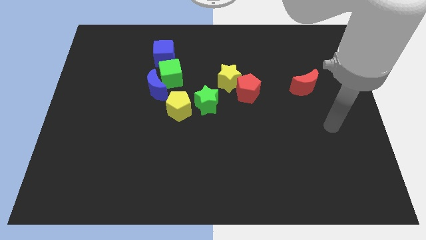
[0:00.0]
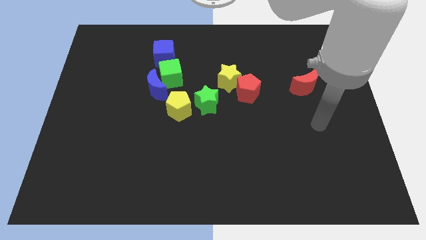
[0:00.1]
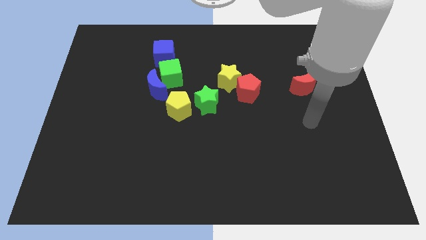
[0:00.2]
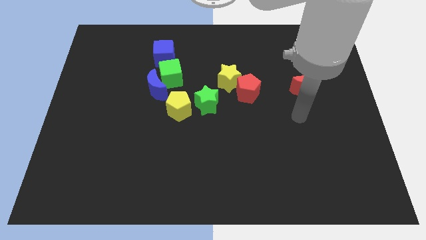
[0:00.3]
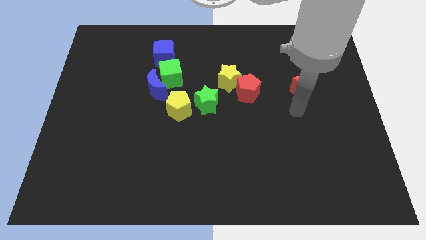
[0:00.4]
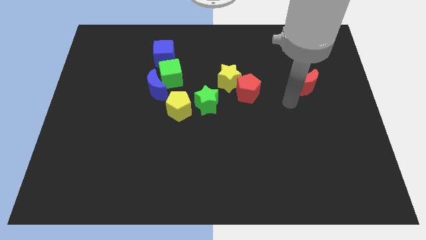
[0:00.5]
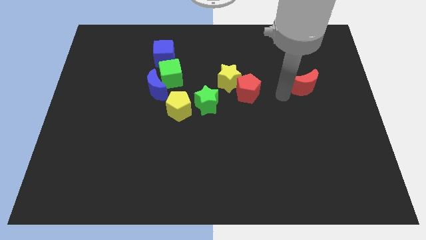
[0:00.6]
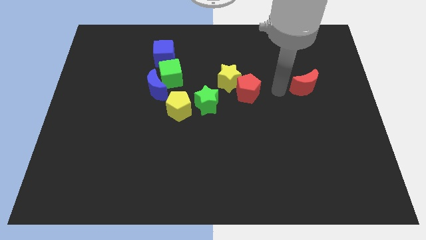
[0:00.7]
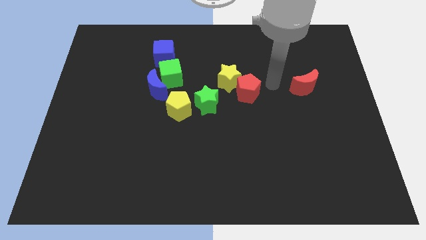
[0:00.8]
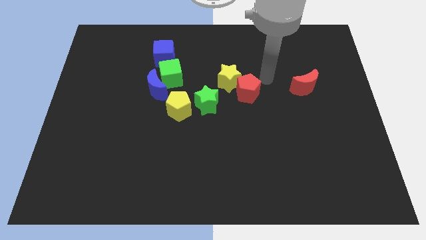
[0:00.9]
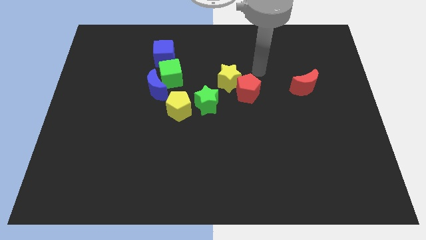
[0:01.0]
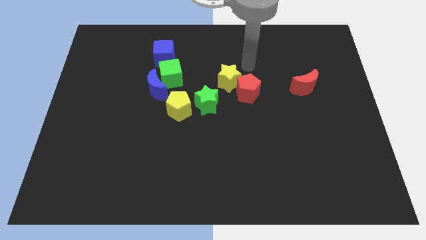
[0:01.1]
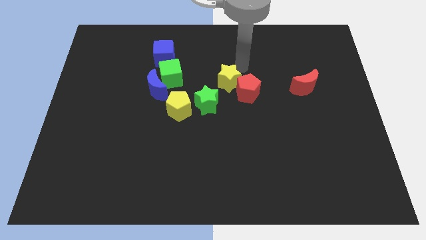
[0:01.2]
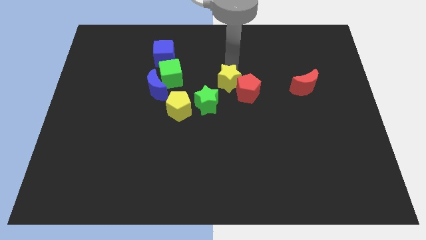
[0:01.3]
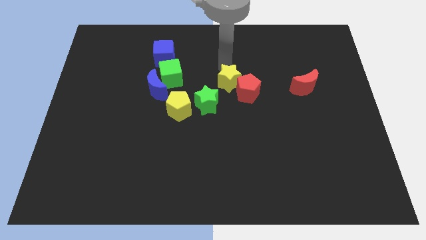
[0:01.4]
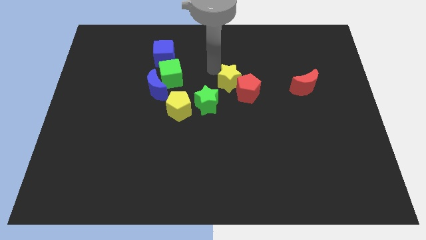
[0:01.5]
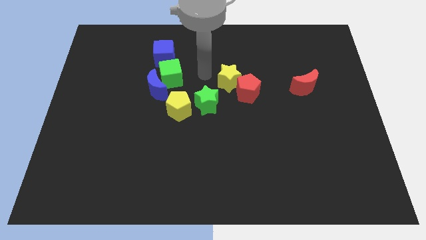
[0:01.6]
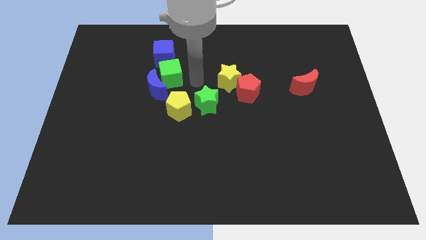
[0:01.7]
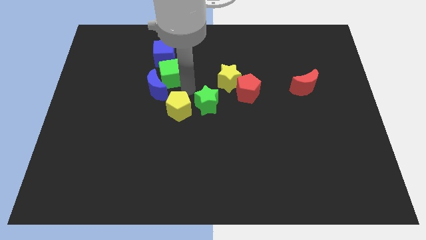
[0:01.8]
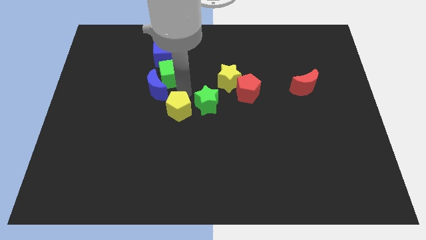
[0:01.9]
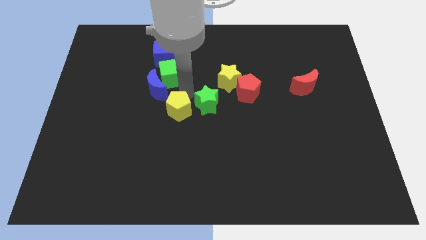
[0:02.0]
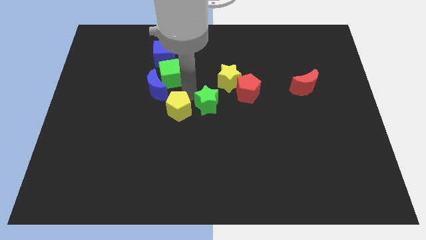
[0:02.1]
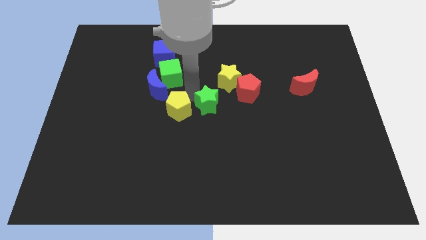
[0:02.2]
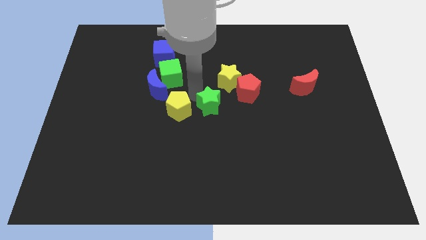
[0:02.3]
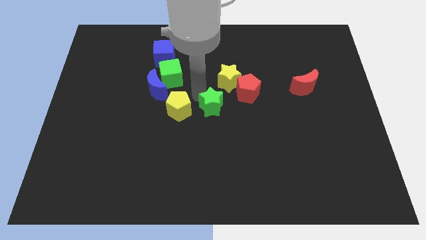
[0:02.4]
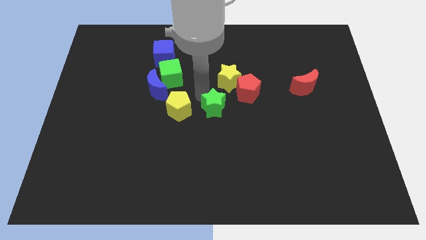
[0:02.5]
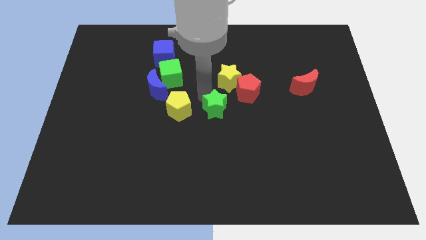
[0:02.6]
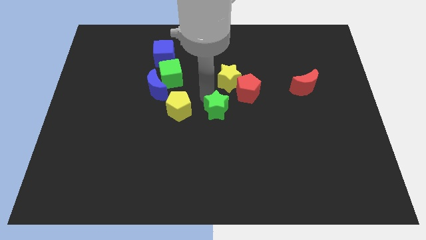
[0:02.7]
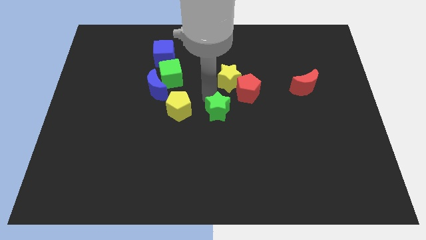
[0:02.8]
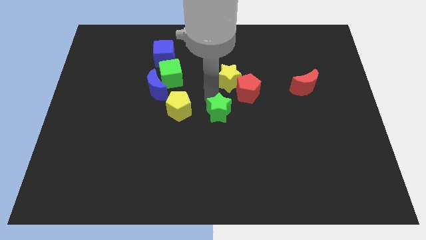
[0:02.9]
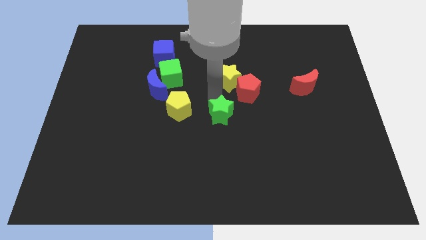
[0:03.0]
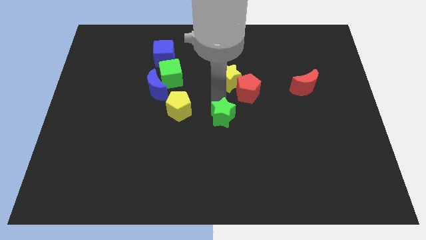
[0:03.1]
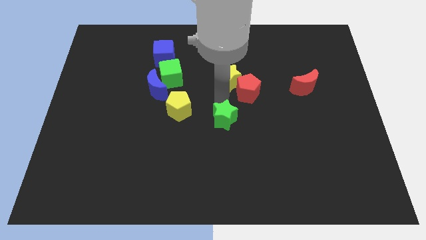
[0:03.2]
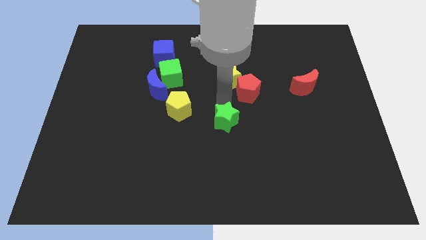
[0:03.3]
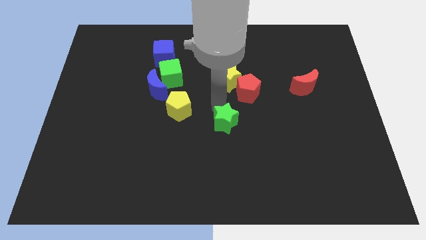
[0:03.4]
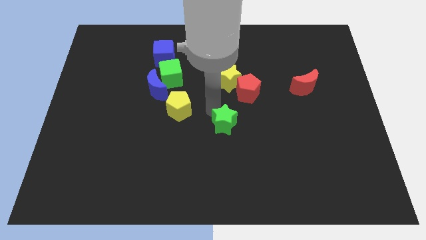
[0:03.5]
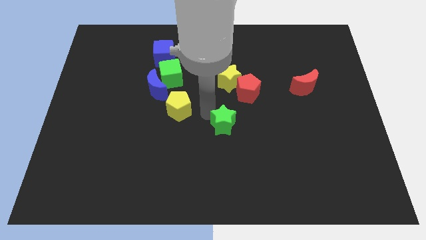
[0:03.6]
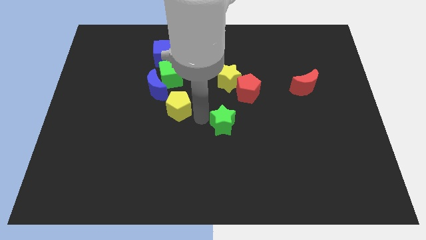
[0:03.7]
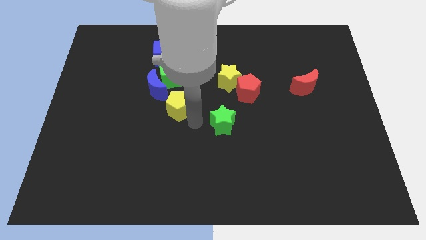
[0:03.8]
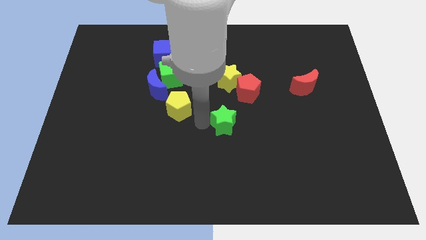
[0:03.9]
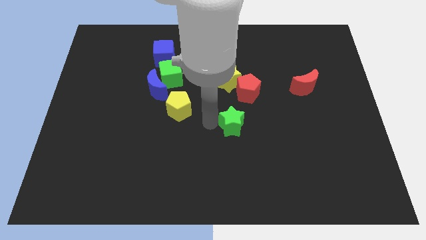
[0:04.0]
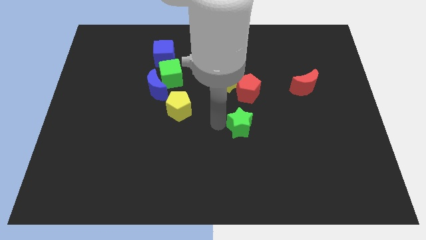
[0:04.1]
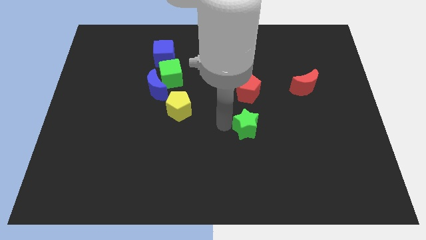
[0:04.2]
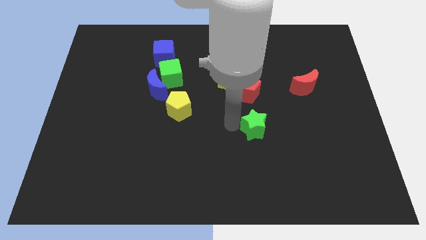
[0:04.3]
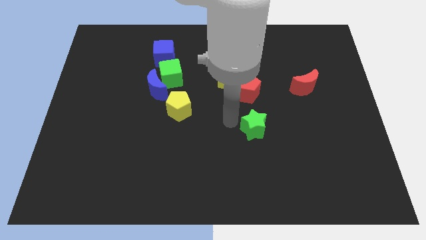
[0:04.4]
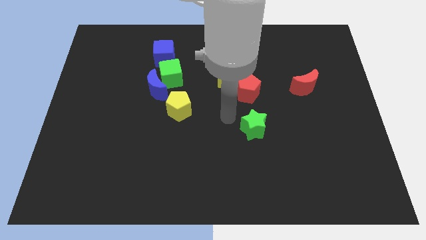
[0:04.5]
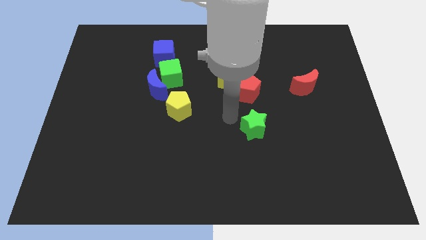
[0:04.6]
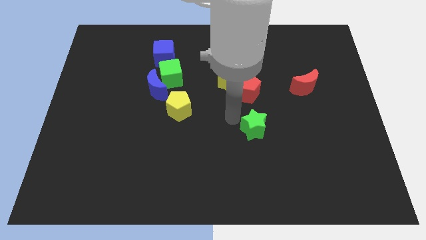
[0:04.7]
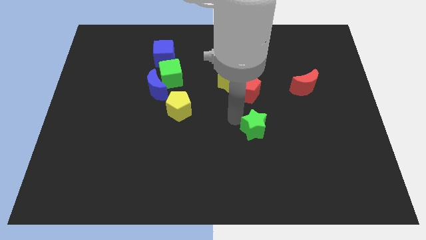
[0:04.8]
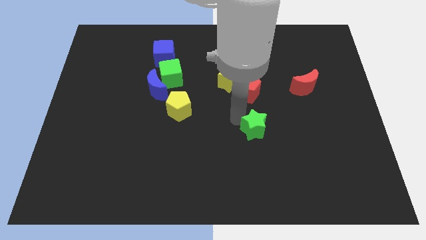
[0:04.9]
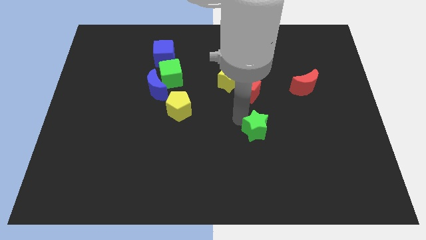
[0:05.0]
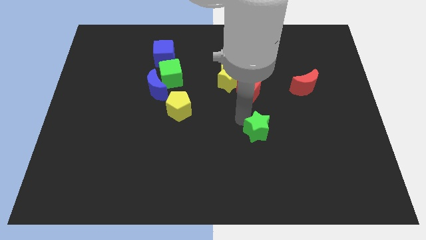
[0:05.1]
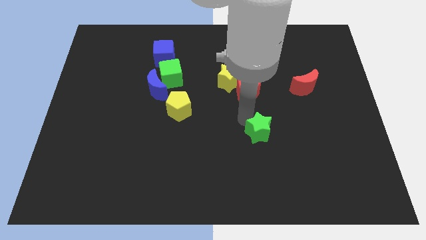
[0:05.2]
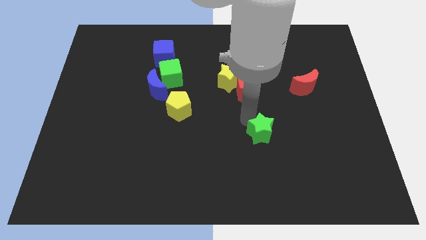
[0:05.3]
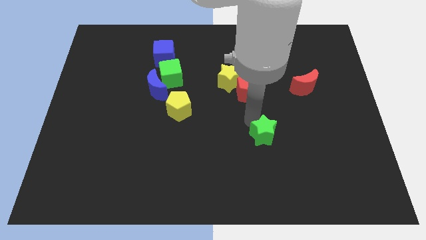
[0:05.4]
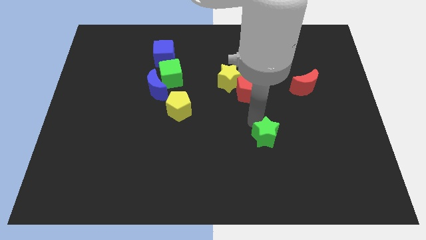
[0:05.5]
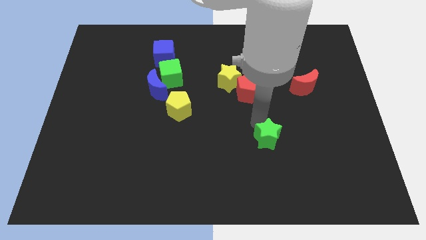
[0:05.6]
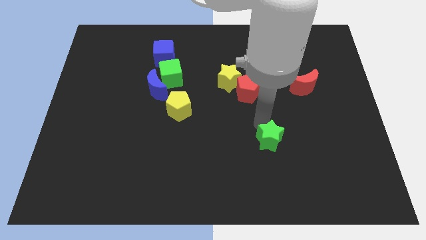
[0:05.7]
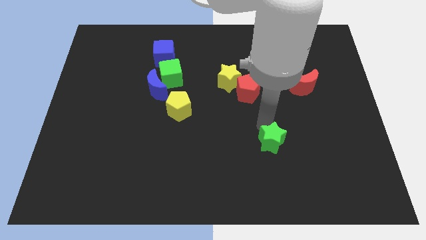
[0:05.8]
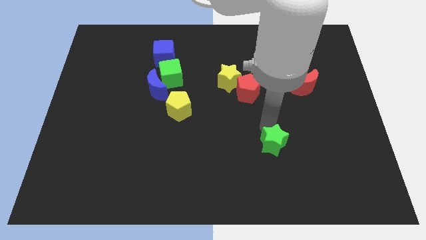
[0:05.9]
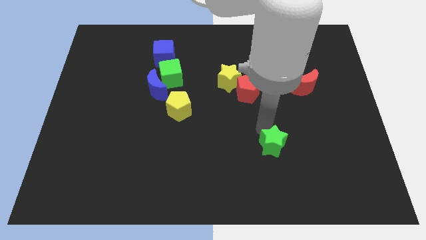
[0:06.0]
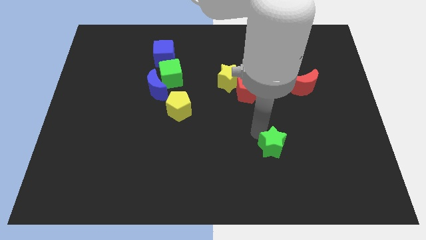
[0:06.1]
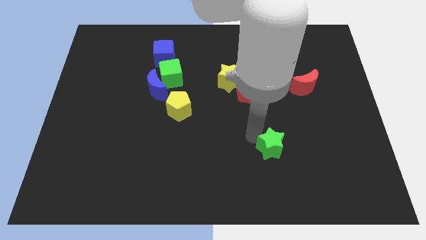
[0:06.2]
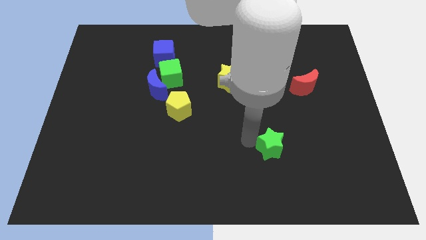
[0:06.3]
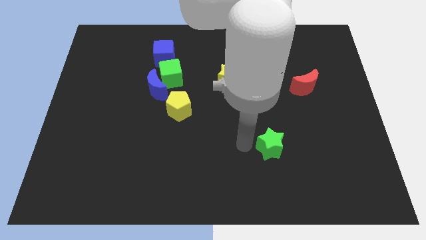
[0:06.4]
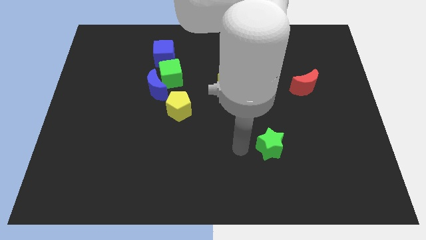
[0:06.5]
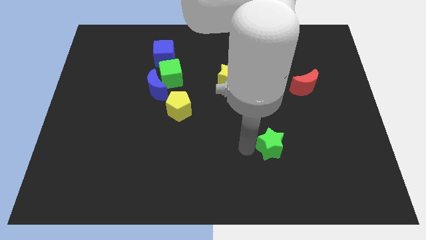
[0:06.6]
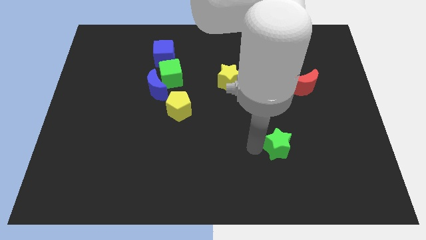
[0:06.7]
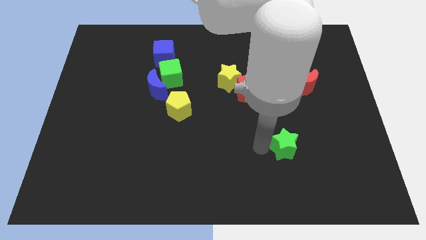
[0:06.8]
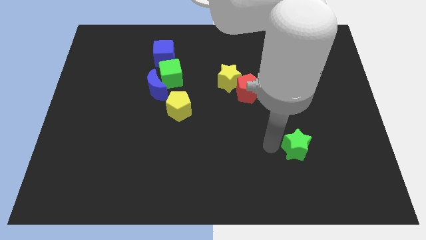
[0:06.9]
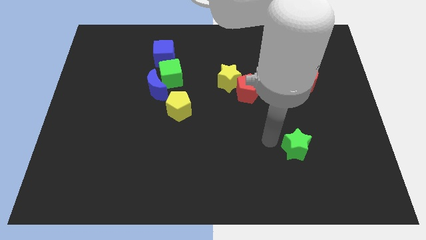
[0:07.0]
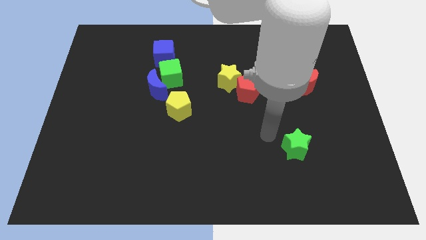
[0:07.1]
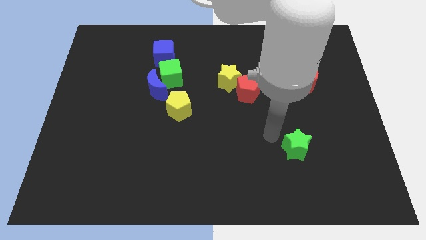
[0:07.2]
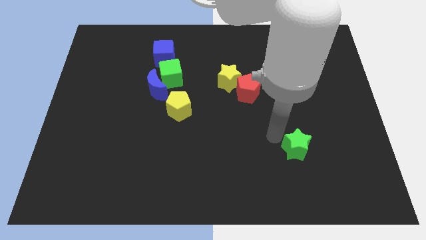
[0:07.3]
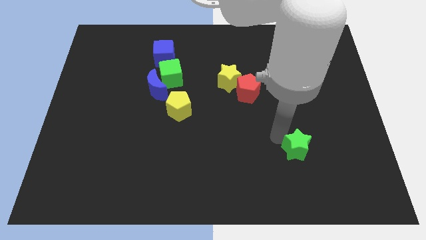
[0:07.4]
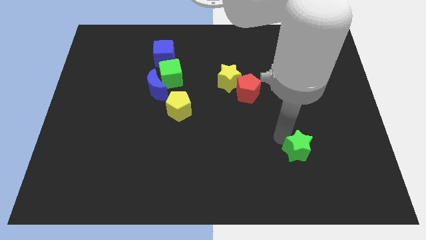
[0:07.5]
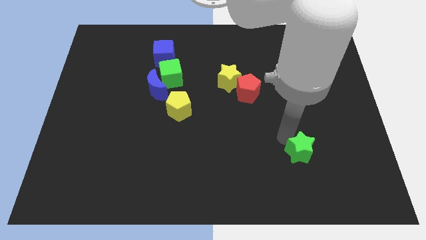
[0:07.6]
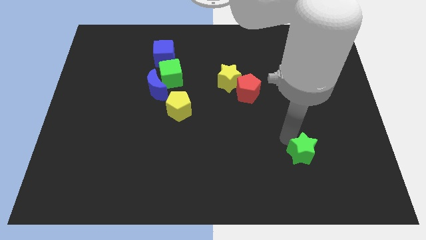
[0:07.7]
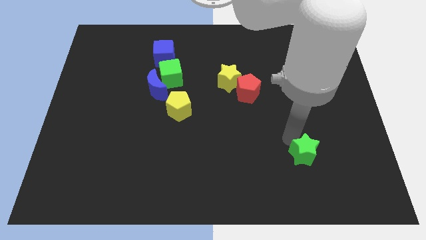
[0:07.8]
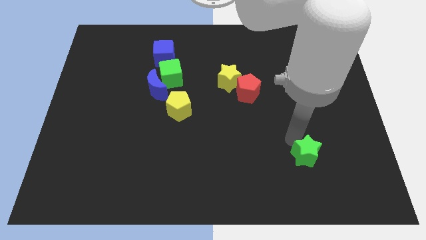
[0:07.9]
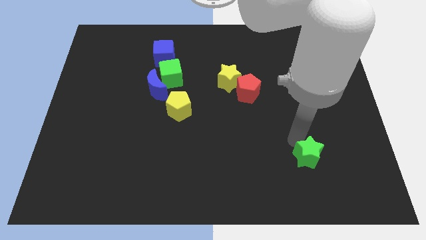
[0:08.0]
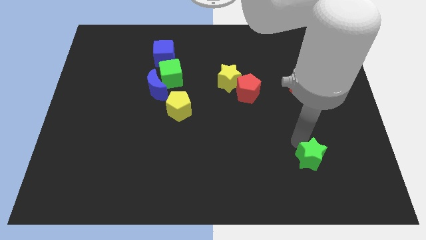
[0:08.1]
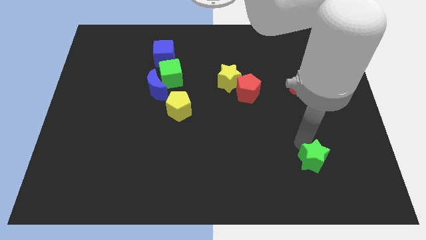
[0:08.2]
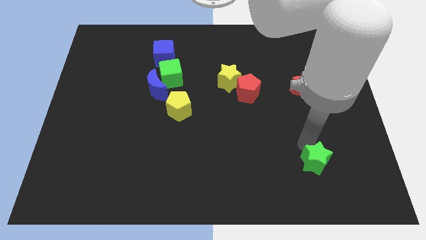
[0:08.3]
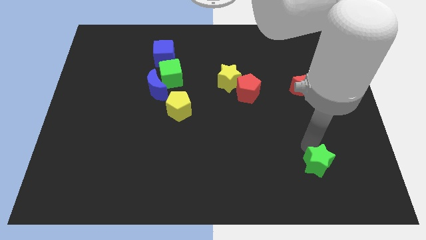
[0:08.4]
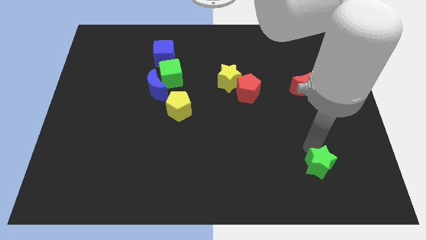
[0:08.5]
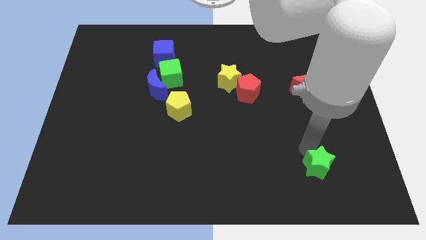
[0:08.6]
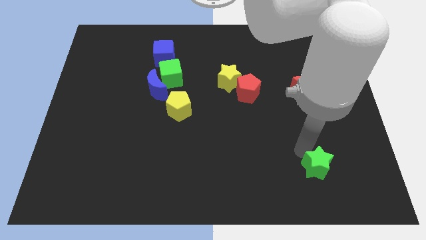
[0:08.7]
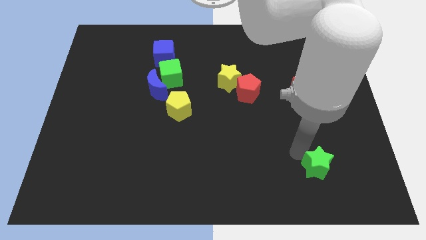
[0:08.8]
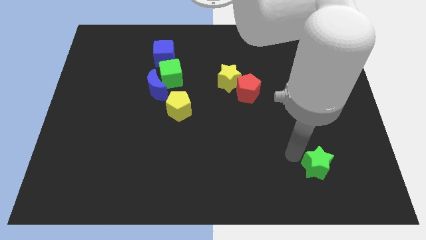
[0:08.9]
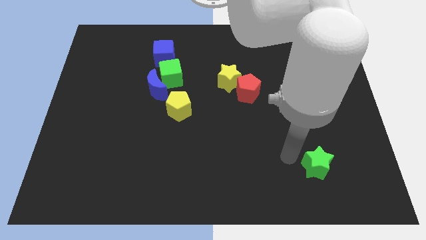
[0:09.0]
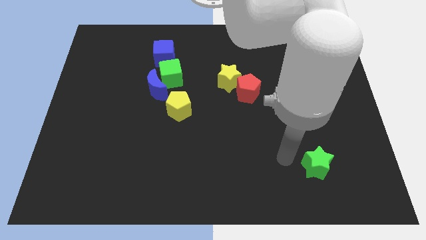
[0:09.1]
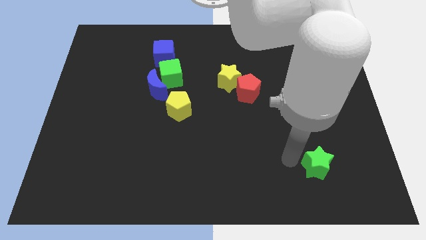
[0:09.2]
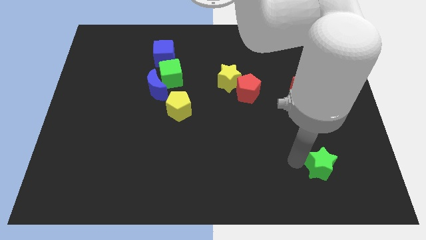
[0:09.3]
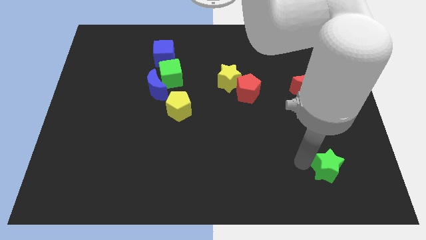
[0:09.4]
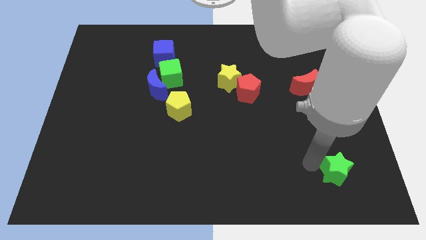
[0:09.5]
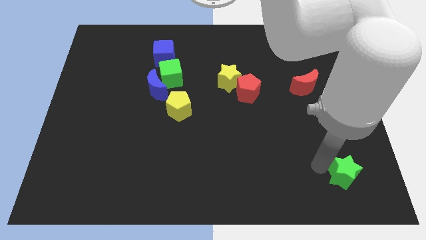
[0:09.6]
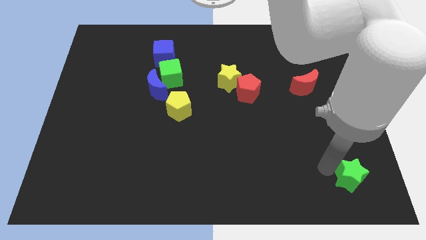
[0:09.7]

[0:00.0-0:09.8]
move the green star to the lower right corner
